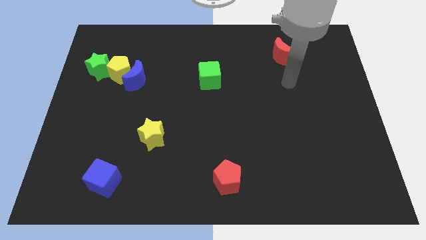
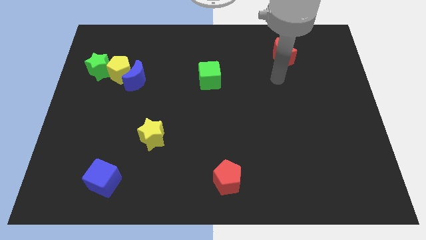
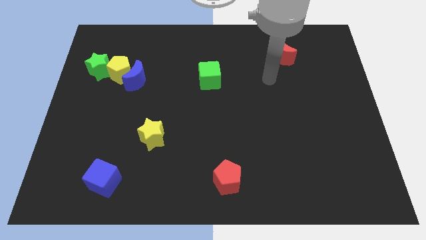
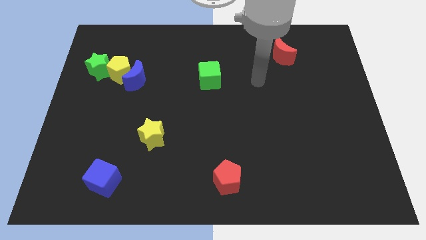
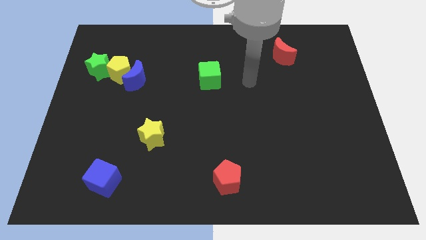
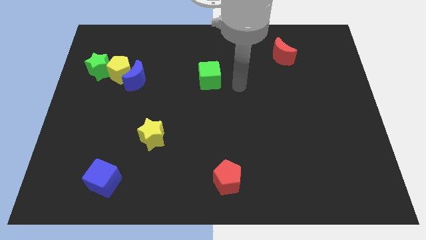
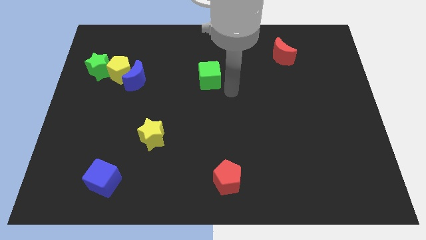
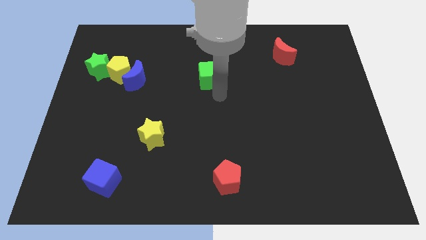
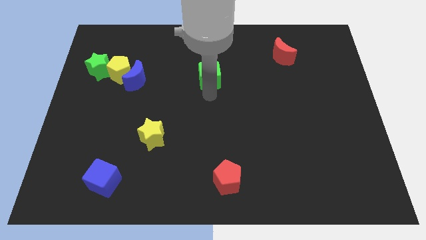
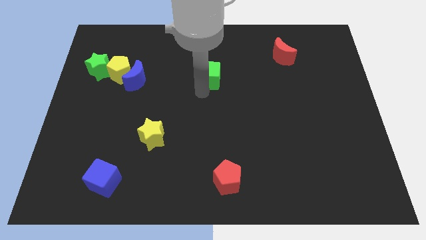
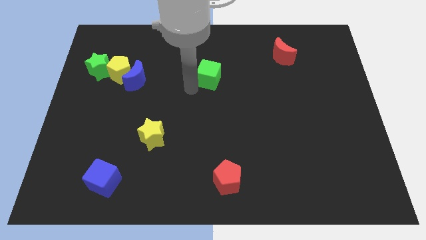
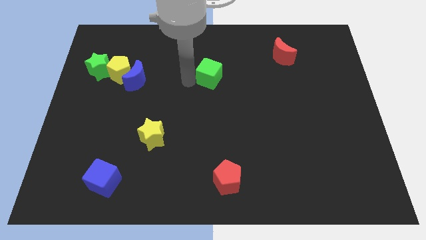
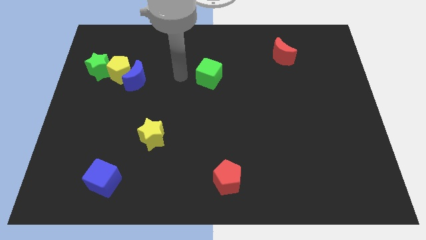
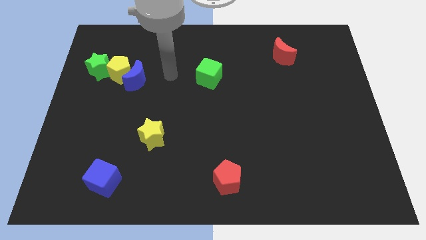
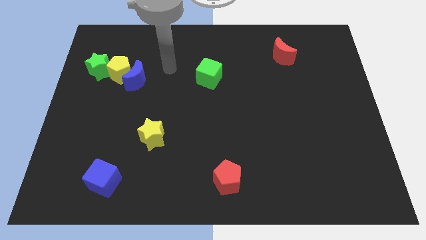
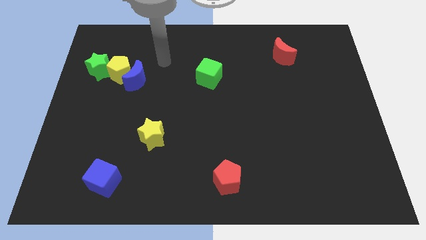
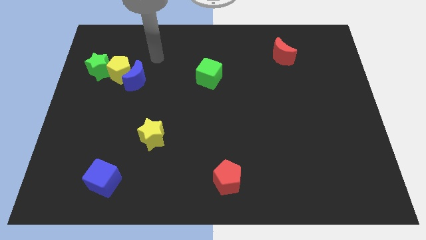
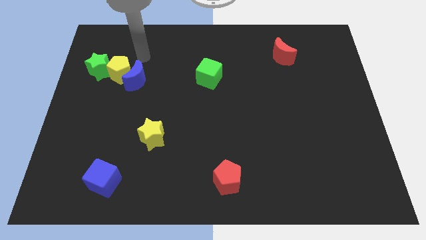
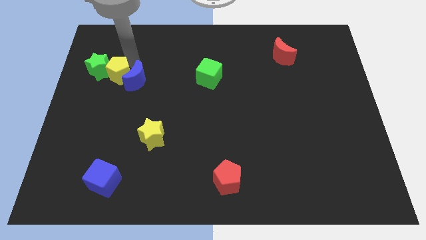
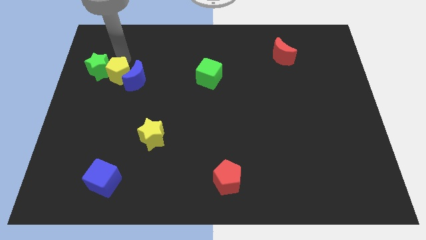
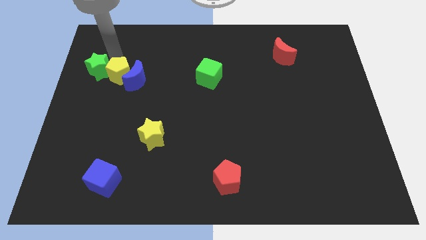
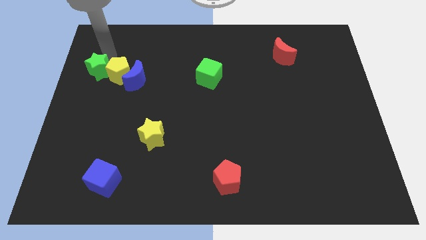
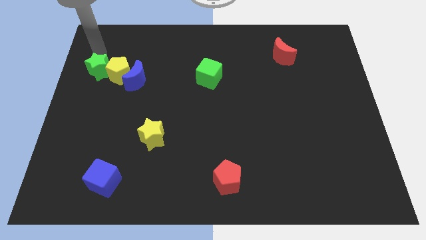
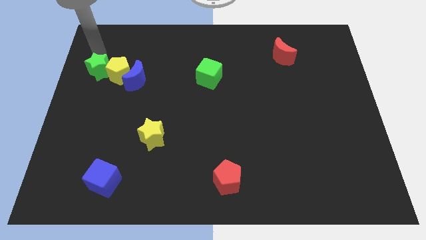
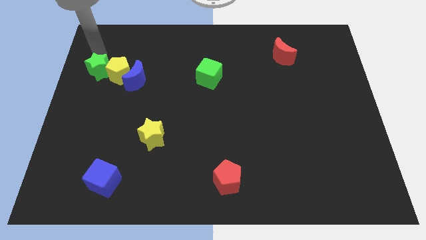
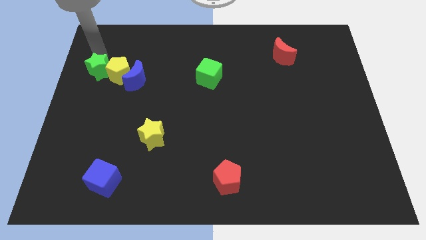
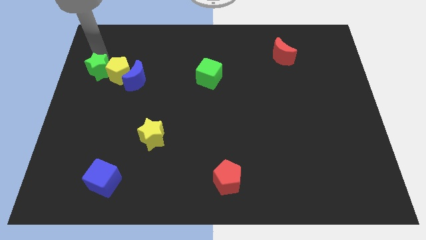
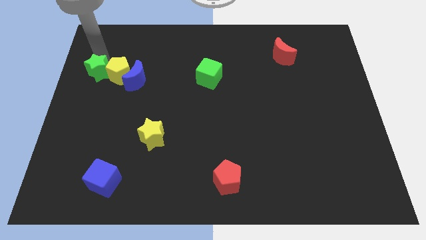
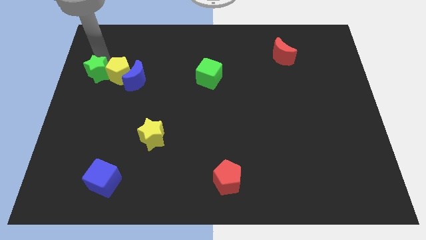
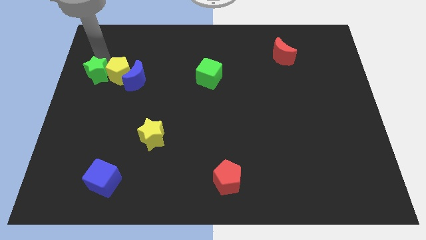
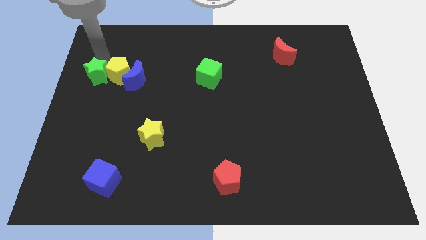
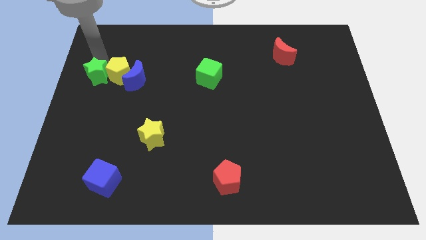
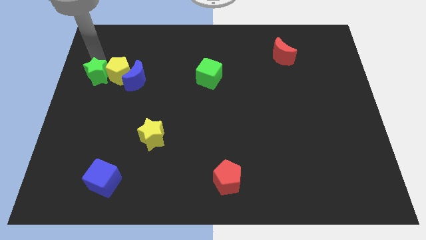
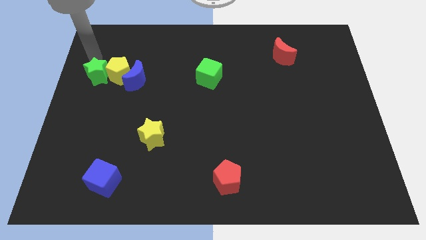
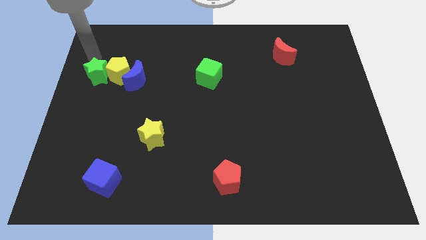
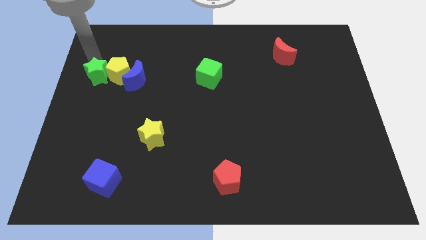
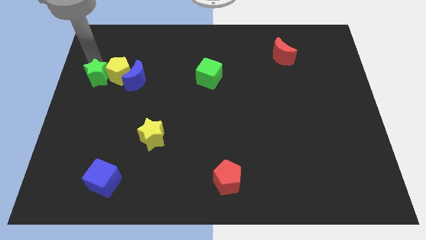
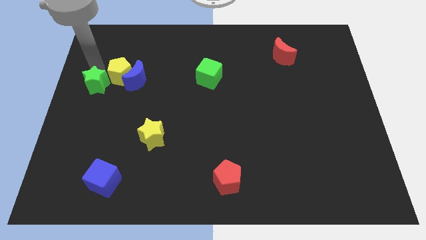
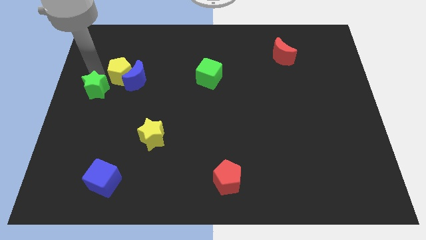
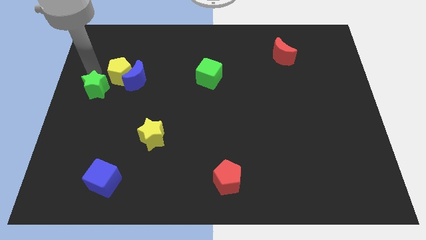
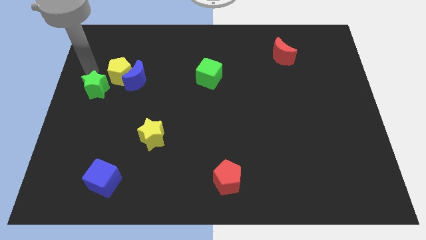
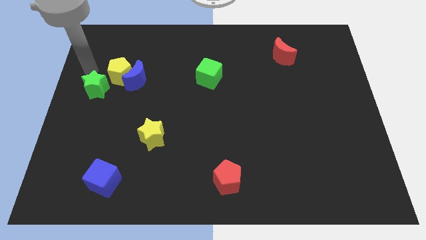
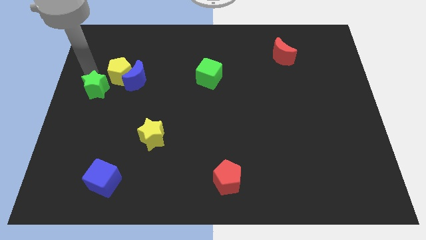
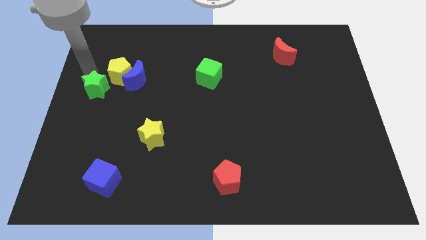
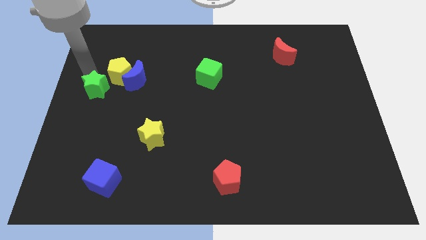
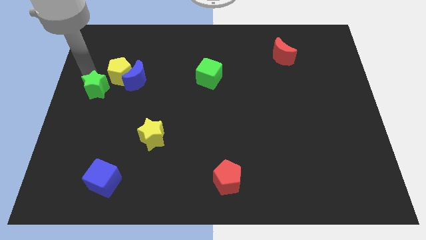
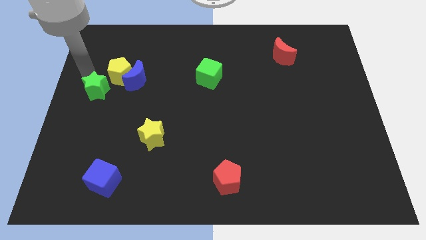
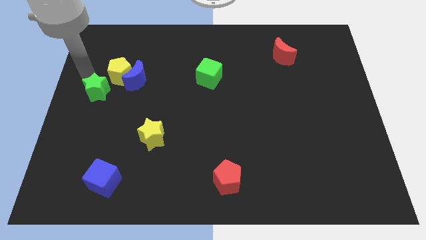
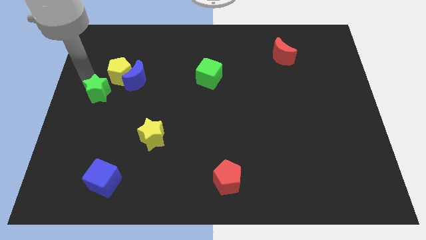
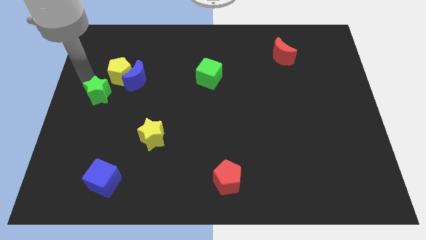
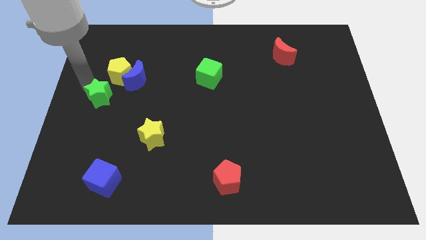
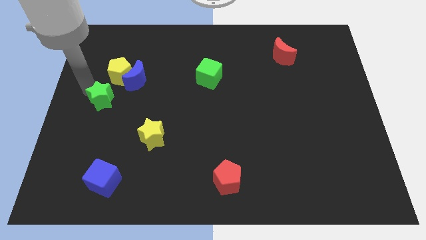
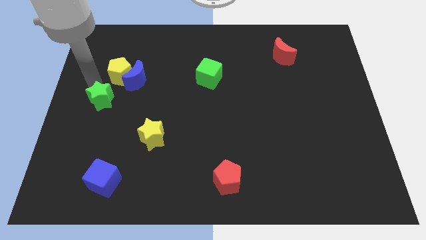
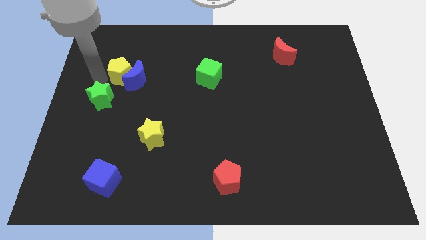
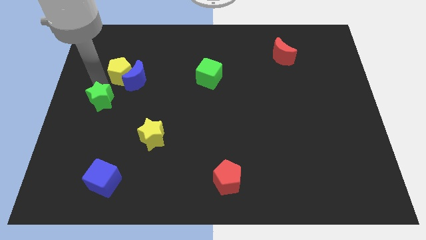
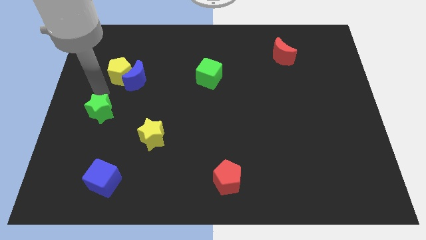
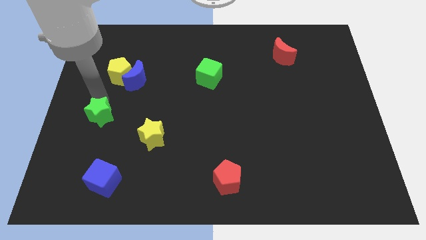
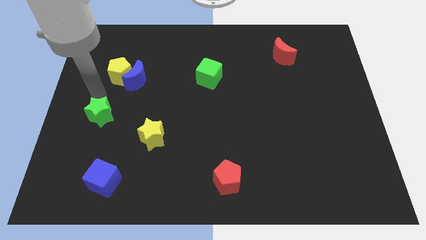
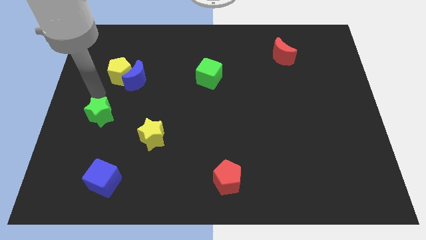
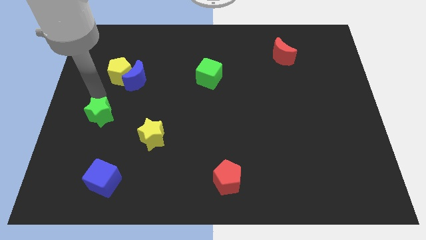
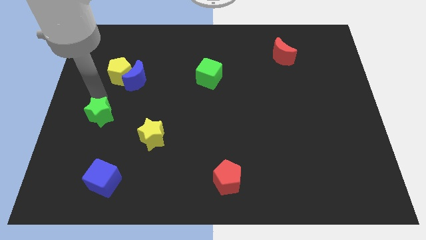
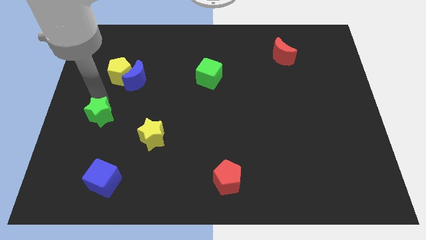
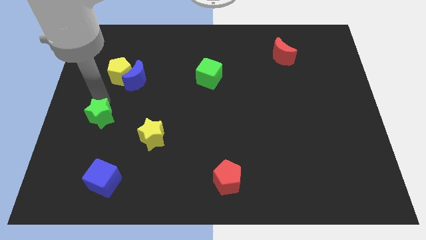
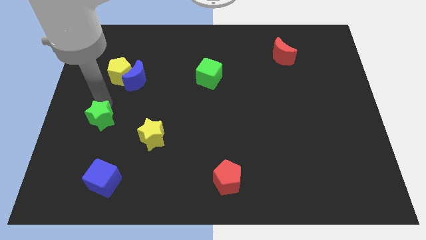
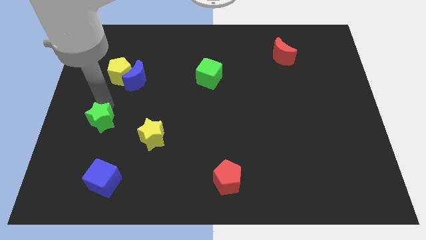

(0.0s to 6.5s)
move the green star to the left of the yellow star
